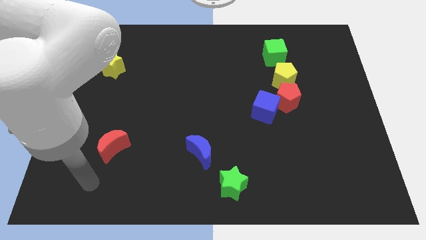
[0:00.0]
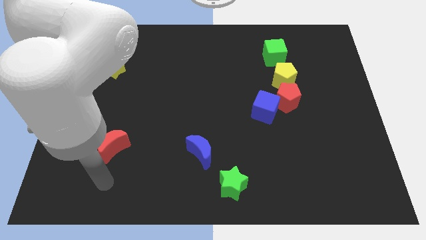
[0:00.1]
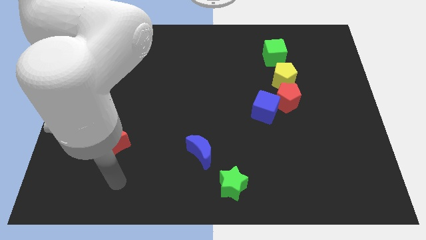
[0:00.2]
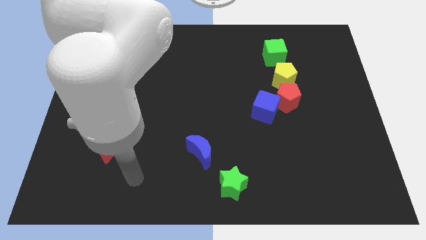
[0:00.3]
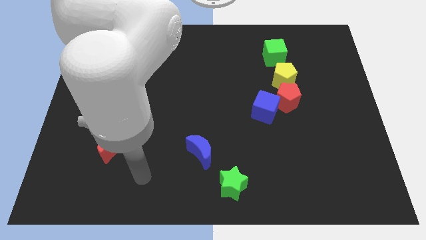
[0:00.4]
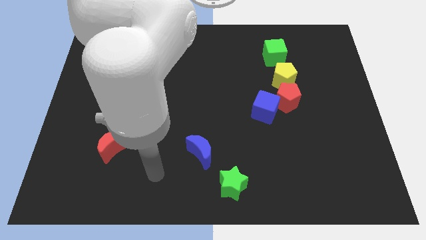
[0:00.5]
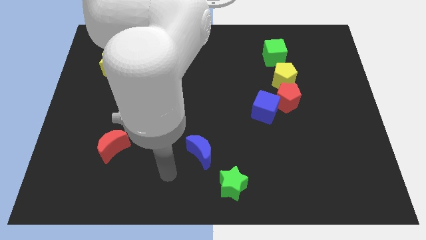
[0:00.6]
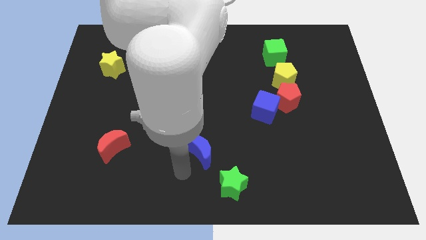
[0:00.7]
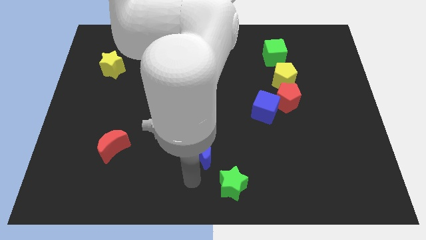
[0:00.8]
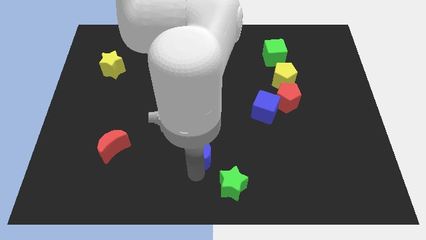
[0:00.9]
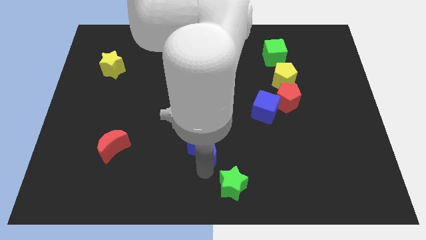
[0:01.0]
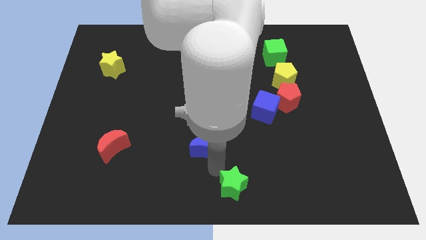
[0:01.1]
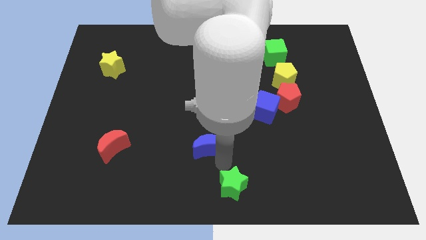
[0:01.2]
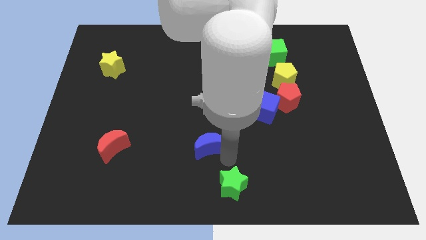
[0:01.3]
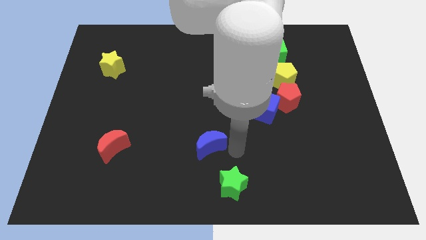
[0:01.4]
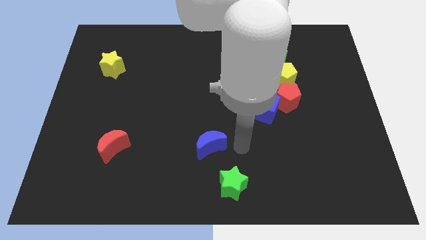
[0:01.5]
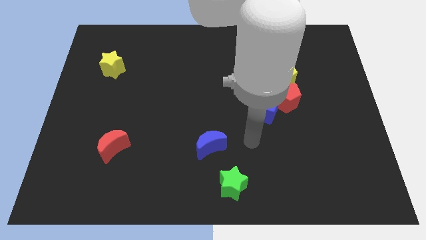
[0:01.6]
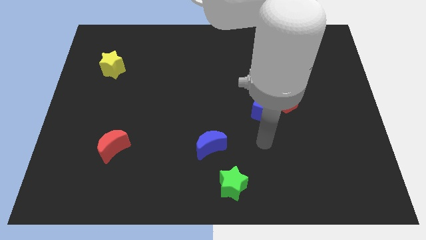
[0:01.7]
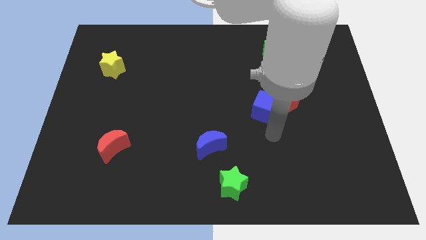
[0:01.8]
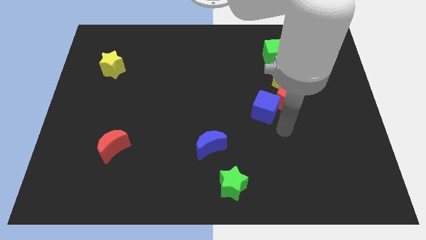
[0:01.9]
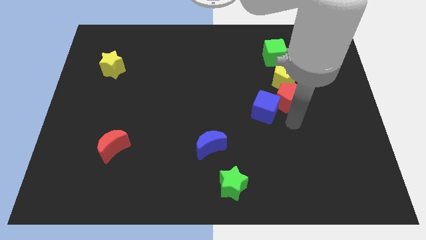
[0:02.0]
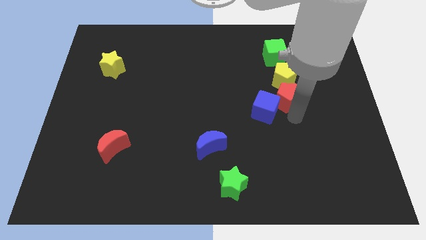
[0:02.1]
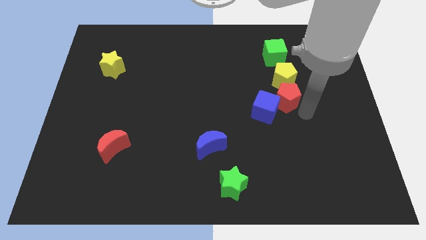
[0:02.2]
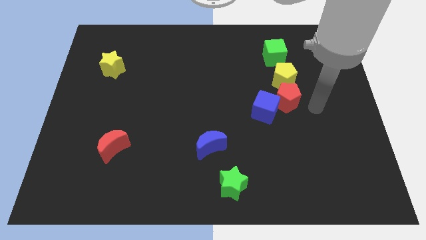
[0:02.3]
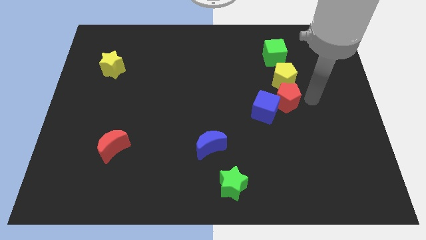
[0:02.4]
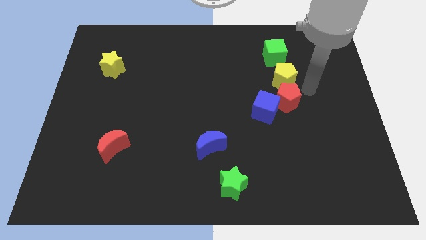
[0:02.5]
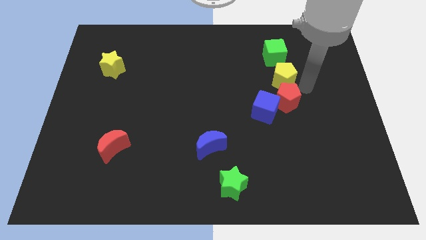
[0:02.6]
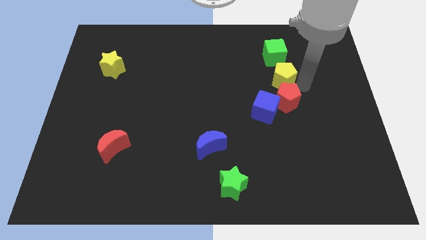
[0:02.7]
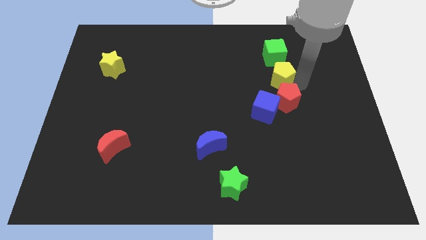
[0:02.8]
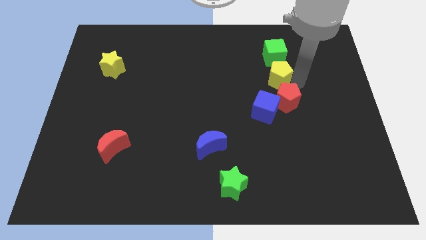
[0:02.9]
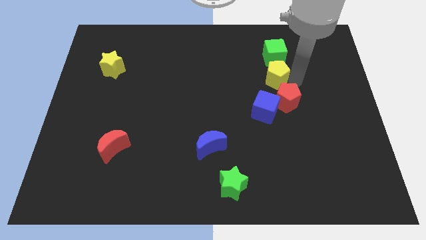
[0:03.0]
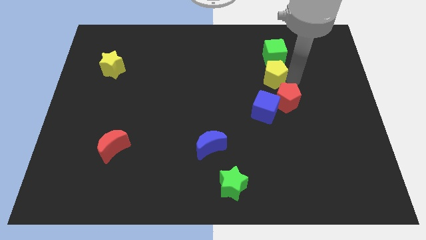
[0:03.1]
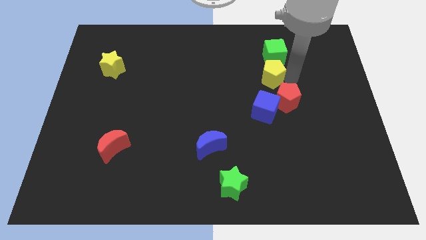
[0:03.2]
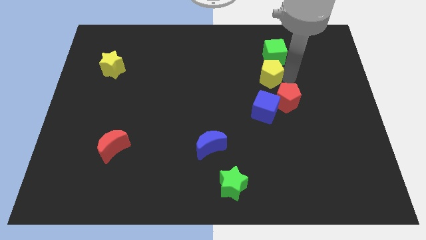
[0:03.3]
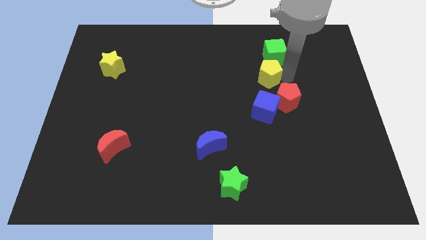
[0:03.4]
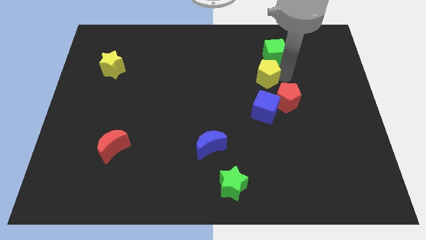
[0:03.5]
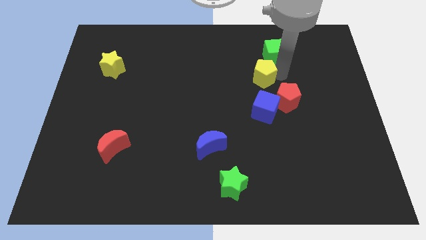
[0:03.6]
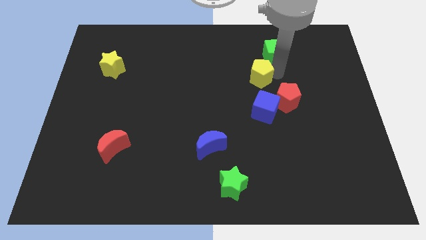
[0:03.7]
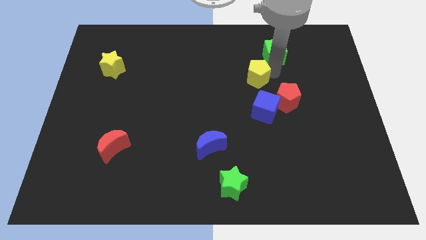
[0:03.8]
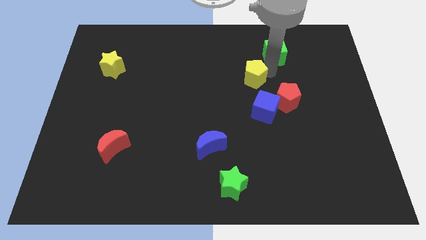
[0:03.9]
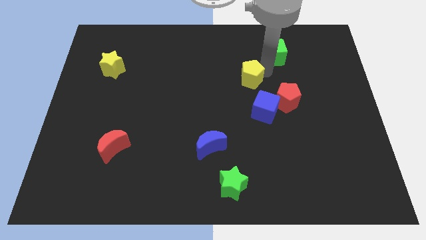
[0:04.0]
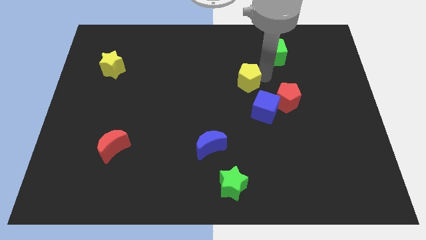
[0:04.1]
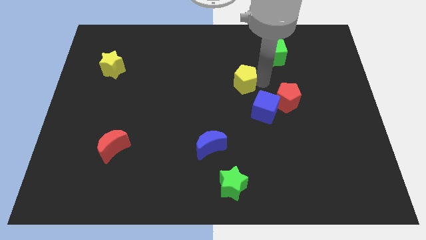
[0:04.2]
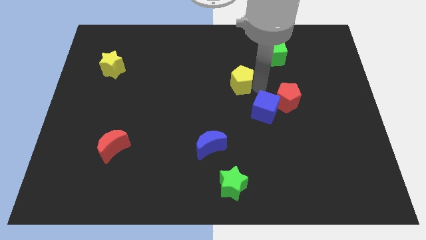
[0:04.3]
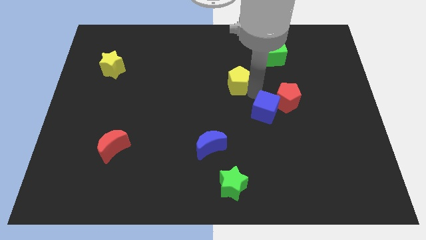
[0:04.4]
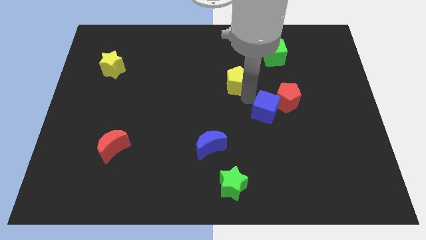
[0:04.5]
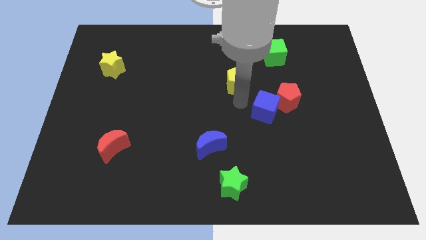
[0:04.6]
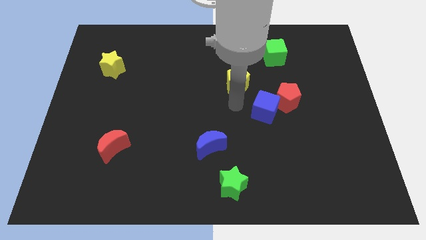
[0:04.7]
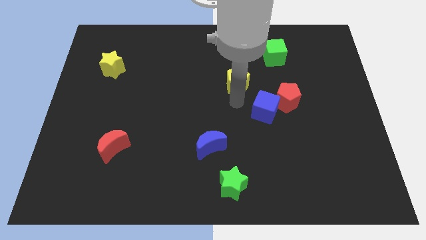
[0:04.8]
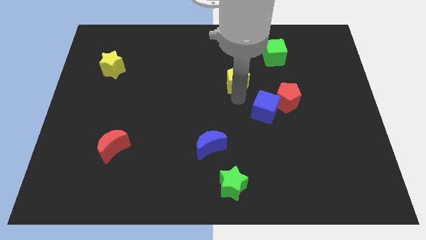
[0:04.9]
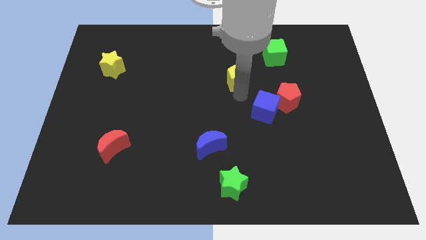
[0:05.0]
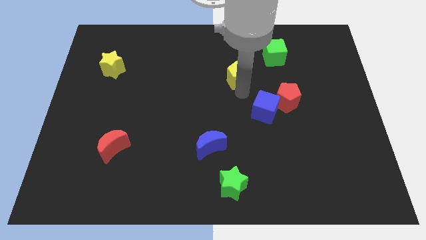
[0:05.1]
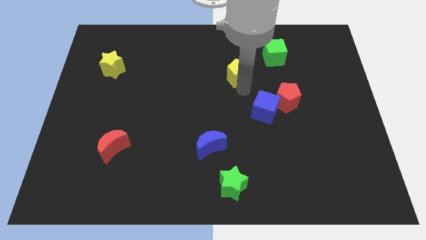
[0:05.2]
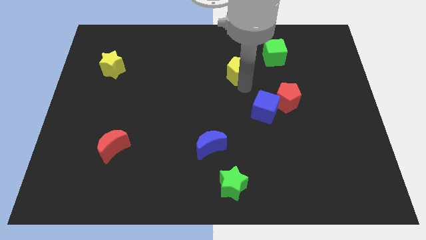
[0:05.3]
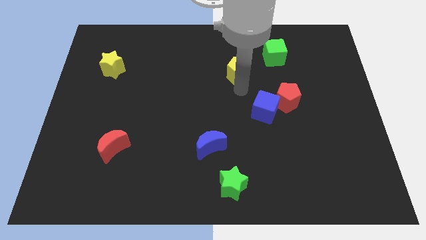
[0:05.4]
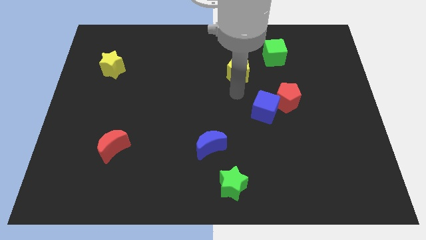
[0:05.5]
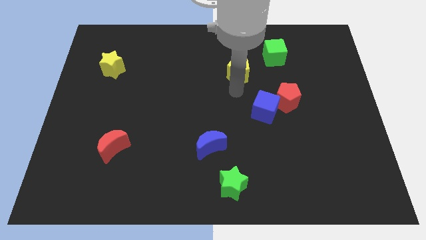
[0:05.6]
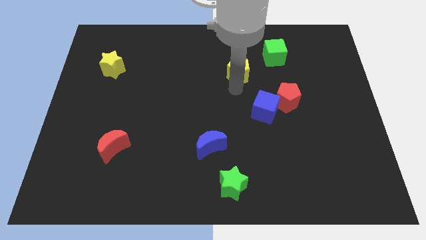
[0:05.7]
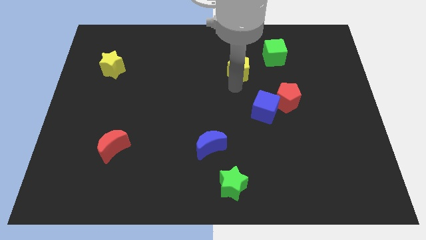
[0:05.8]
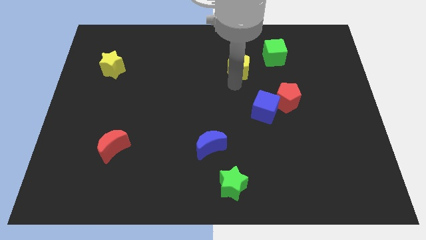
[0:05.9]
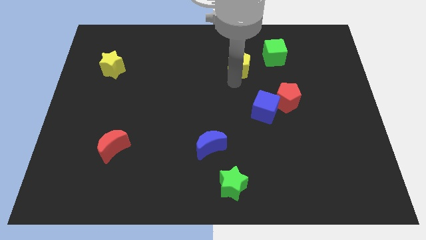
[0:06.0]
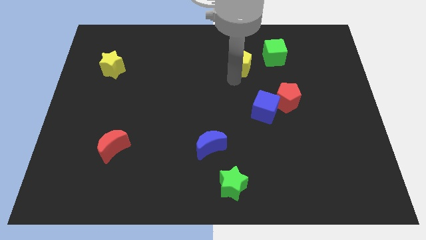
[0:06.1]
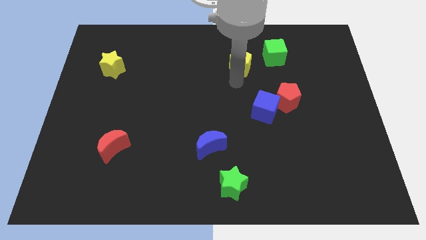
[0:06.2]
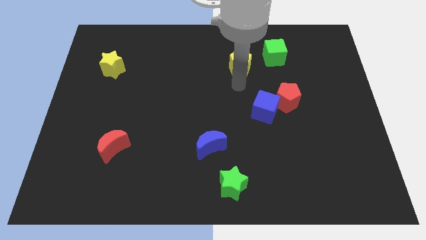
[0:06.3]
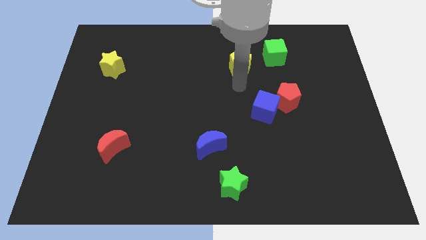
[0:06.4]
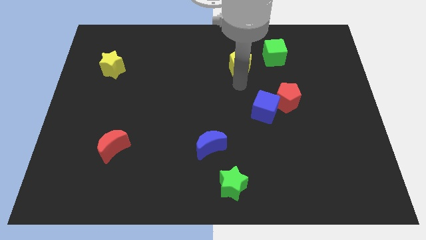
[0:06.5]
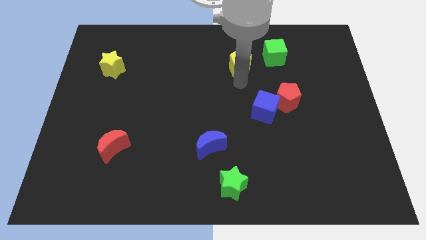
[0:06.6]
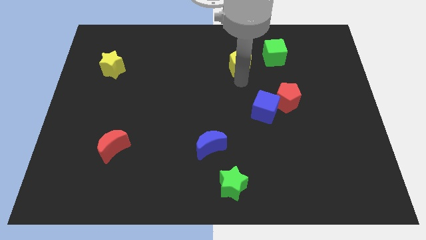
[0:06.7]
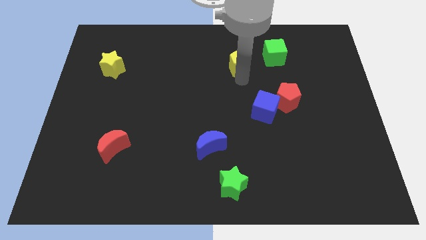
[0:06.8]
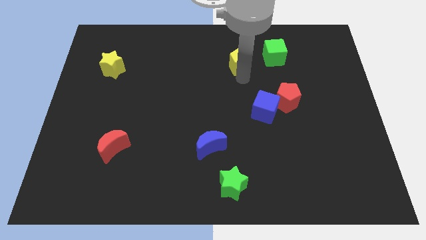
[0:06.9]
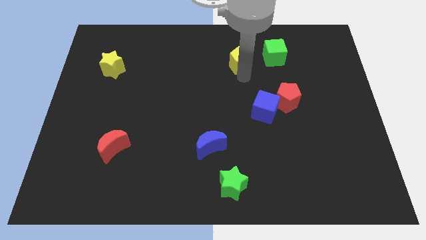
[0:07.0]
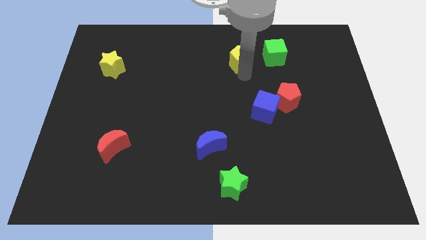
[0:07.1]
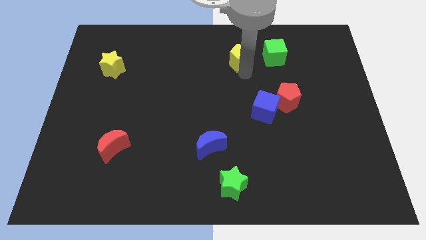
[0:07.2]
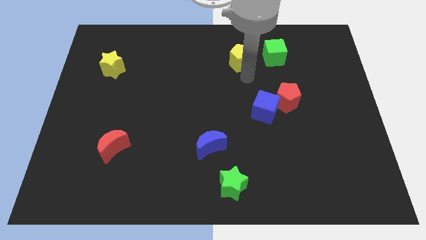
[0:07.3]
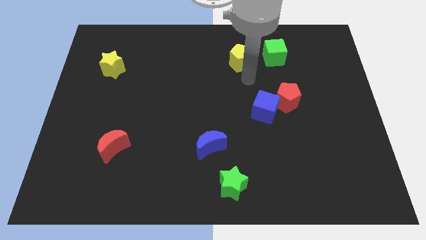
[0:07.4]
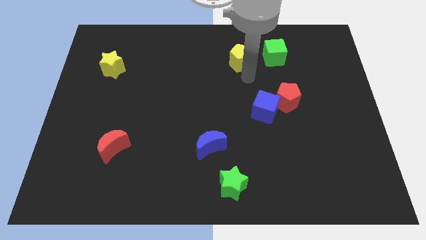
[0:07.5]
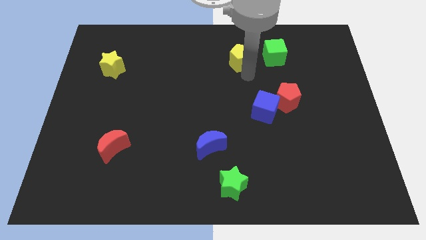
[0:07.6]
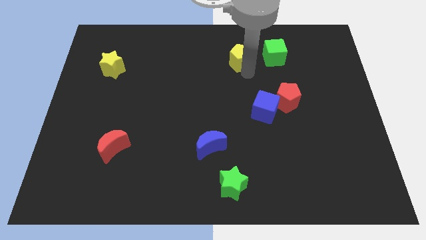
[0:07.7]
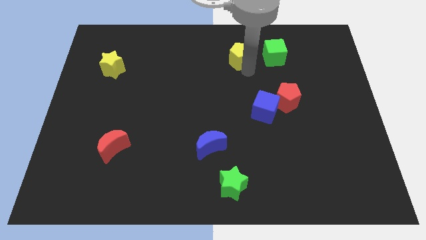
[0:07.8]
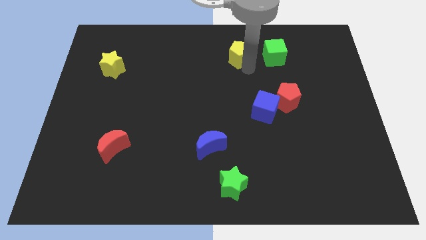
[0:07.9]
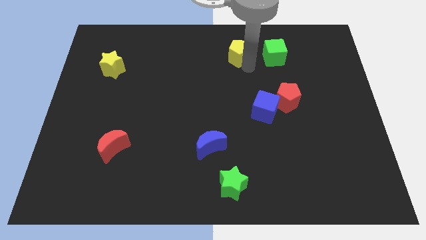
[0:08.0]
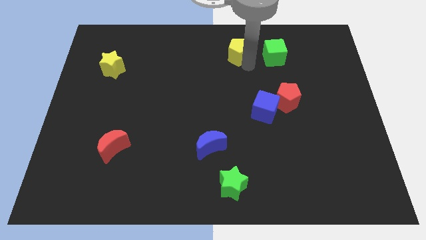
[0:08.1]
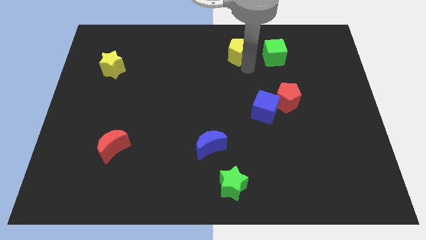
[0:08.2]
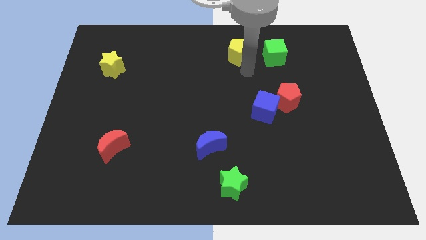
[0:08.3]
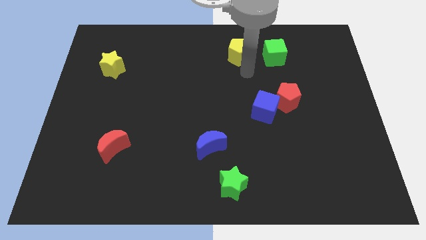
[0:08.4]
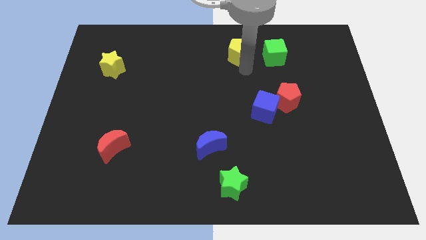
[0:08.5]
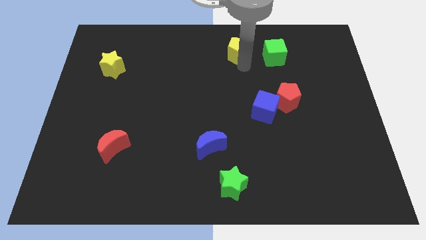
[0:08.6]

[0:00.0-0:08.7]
put the yellow pentagon to the towards your base
